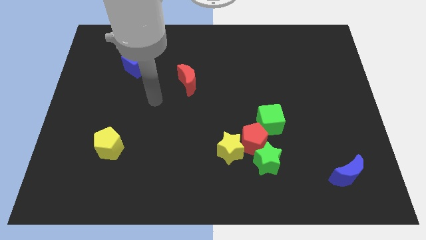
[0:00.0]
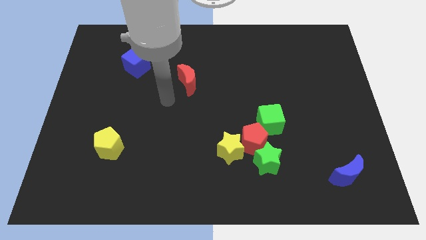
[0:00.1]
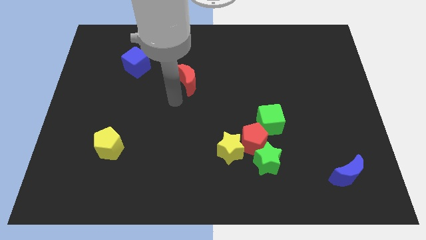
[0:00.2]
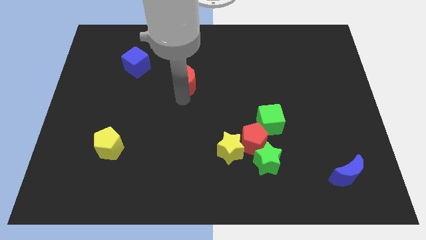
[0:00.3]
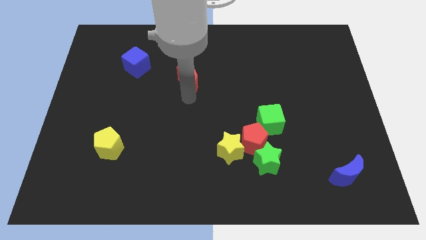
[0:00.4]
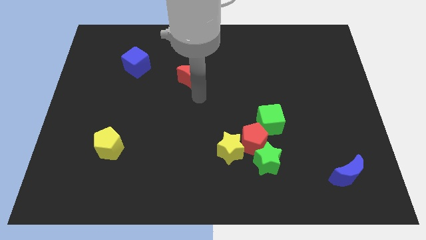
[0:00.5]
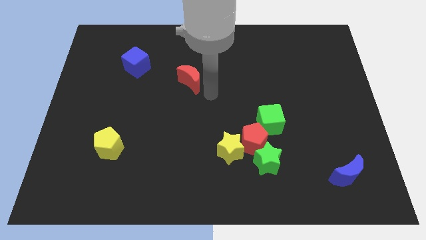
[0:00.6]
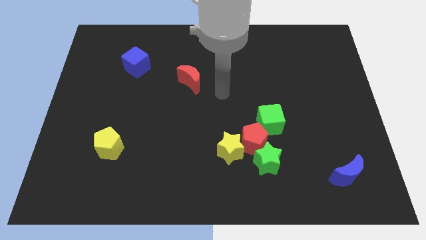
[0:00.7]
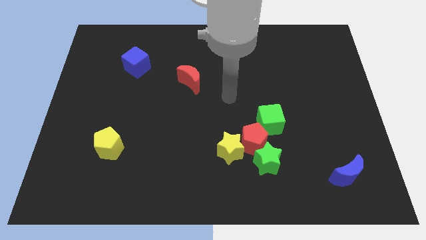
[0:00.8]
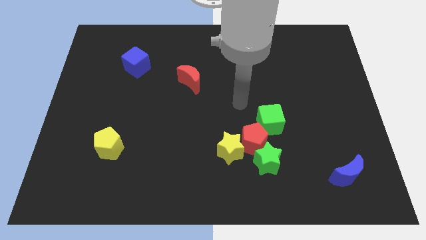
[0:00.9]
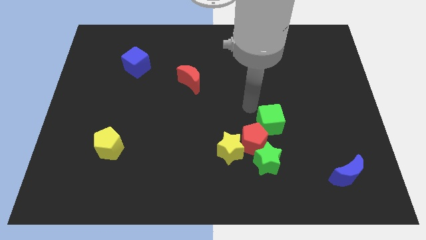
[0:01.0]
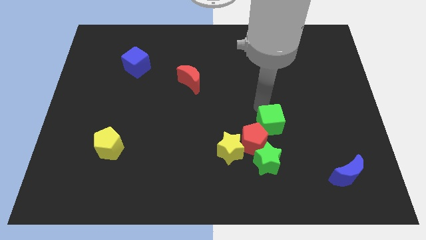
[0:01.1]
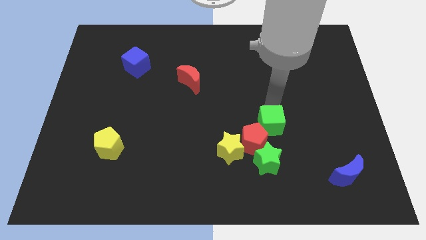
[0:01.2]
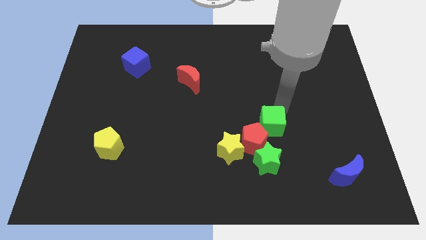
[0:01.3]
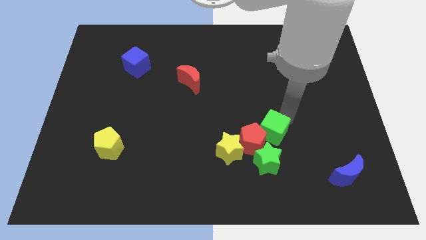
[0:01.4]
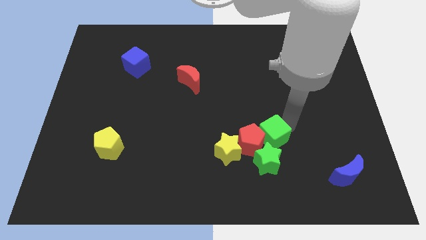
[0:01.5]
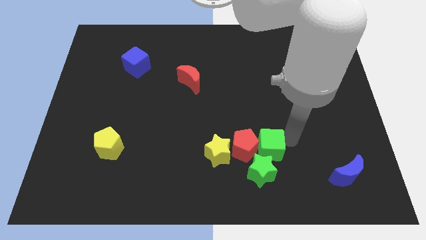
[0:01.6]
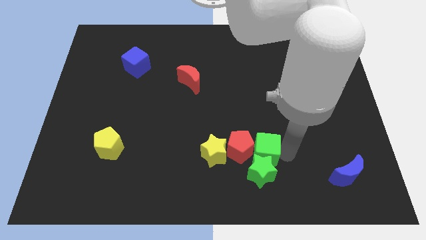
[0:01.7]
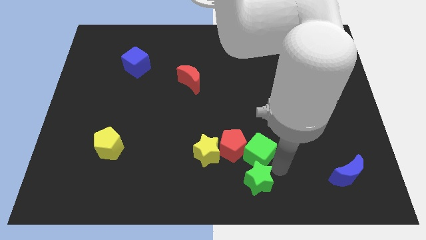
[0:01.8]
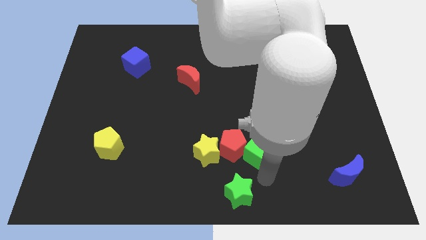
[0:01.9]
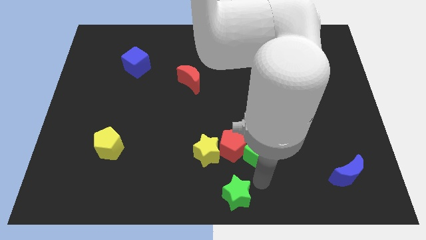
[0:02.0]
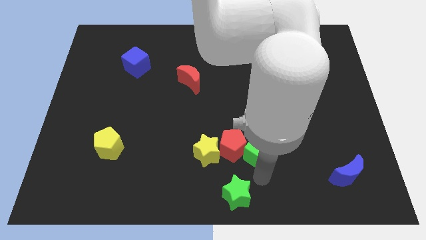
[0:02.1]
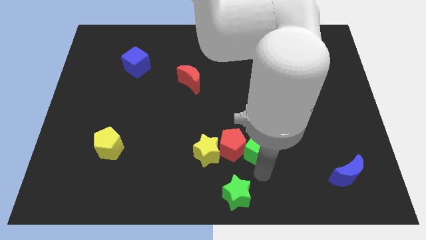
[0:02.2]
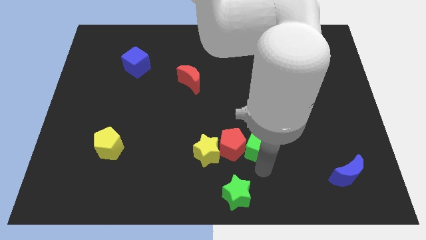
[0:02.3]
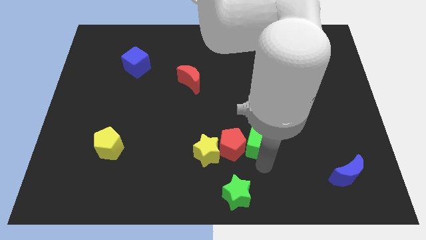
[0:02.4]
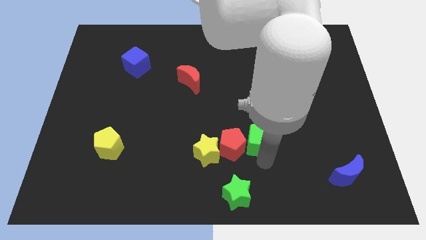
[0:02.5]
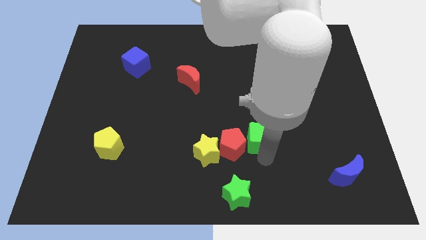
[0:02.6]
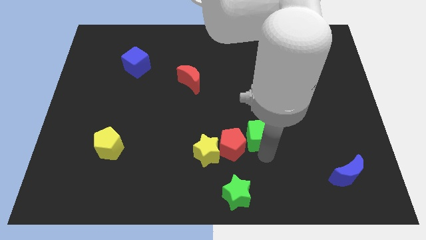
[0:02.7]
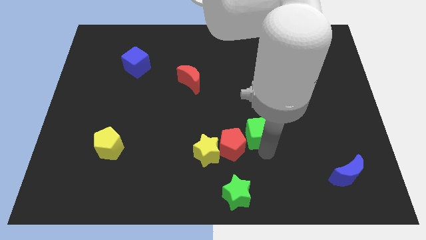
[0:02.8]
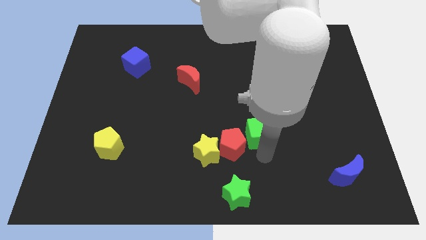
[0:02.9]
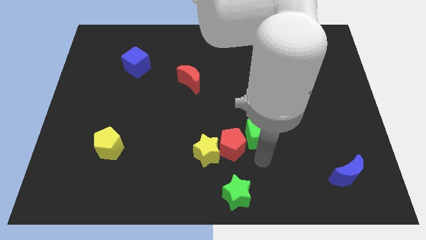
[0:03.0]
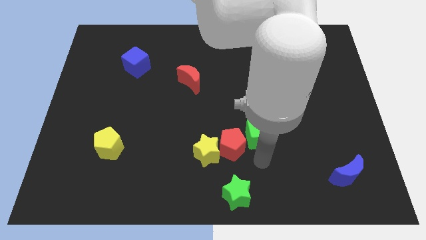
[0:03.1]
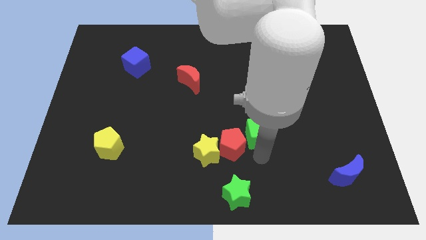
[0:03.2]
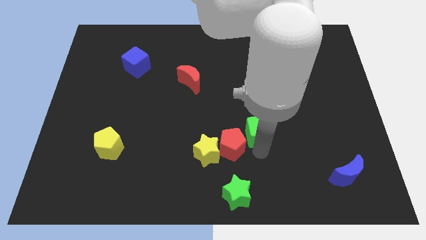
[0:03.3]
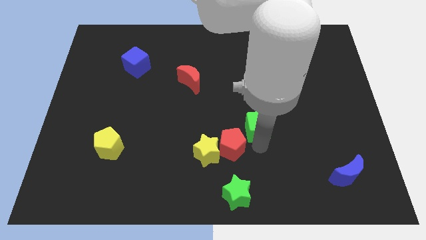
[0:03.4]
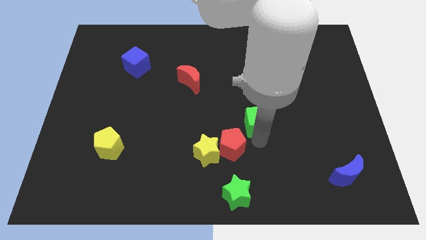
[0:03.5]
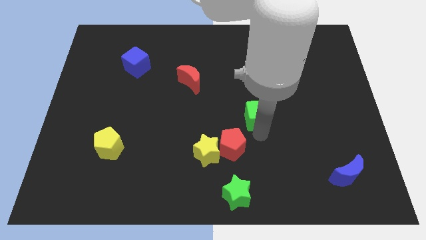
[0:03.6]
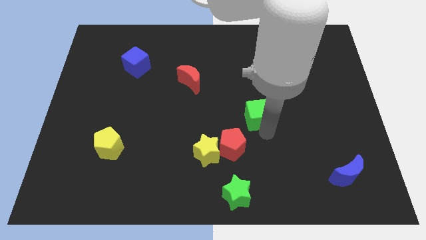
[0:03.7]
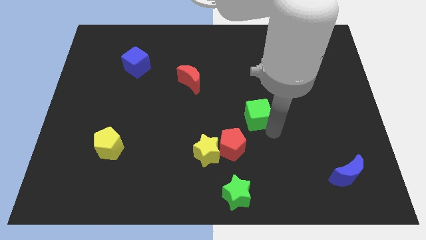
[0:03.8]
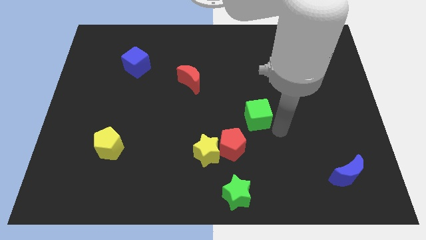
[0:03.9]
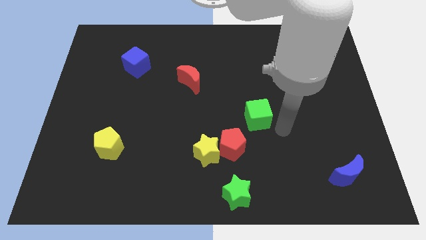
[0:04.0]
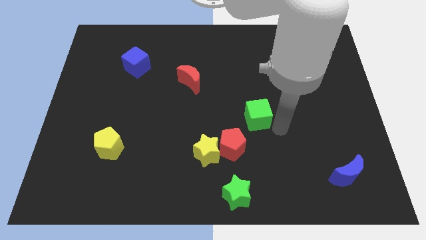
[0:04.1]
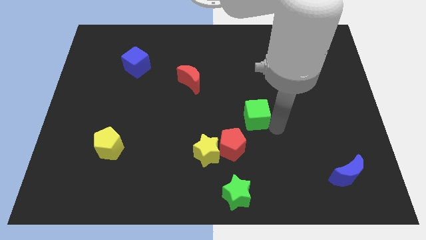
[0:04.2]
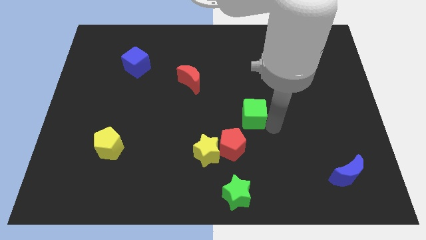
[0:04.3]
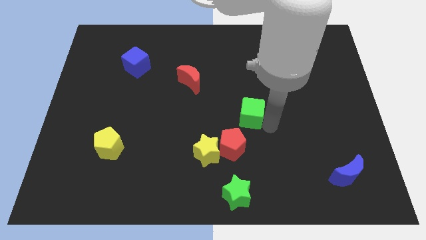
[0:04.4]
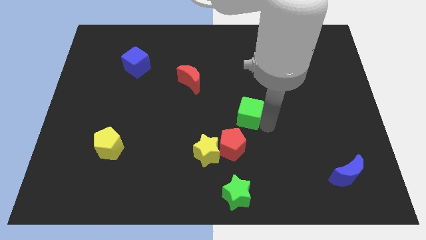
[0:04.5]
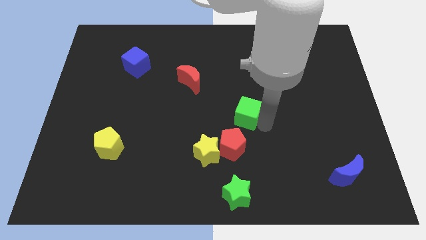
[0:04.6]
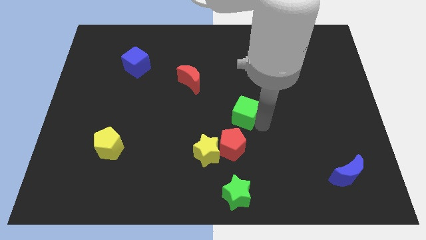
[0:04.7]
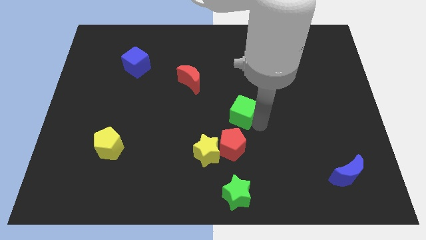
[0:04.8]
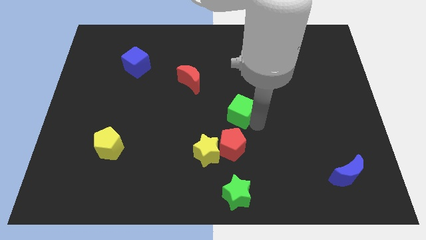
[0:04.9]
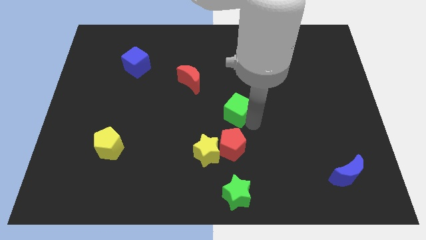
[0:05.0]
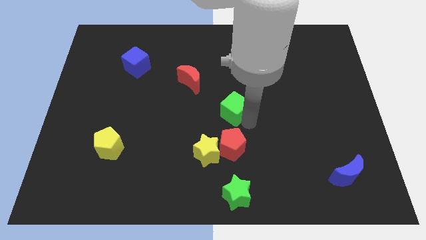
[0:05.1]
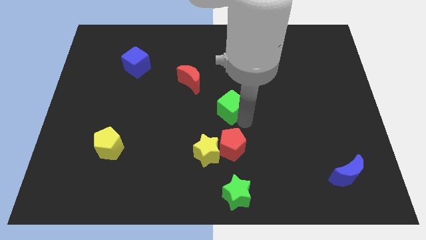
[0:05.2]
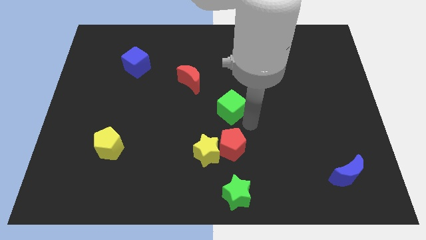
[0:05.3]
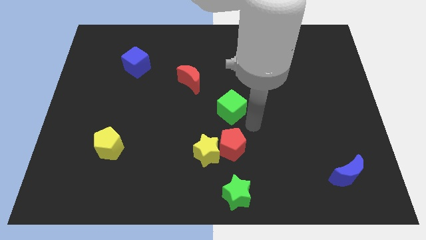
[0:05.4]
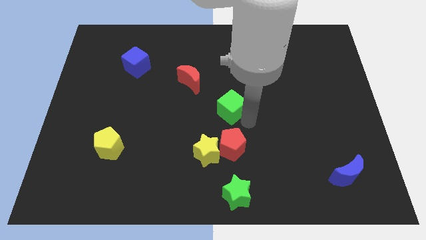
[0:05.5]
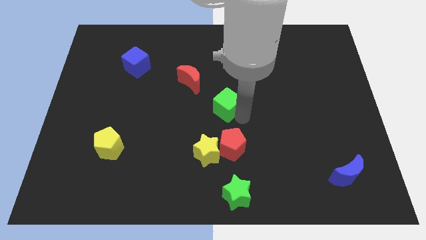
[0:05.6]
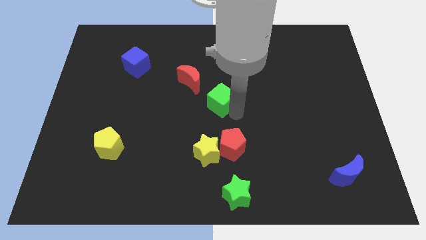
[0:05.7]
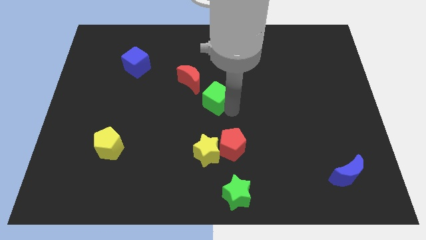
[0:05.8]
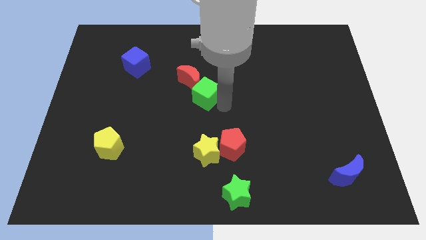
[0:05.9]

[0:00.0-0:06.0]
push the green cube next to the red moon

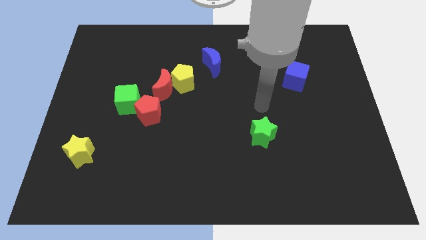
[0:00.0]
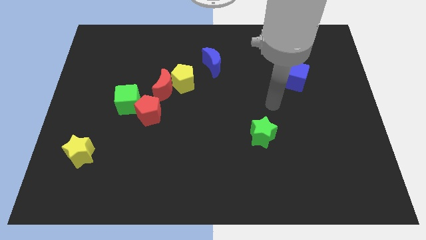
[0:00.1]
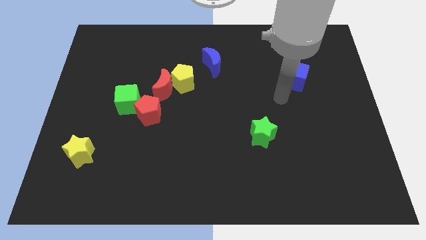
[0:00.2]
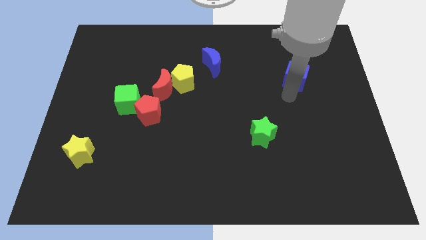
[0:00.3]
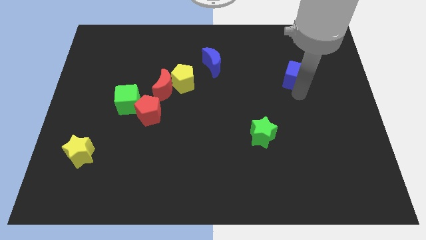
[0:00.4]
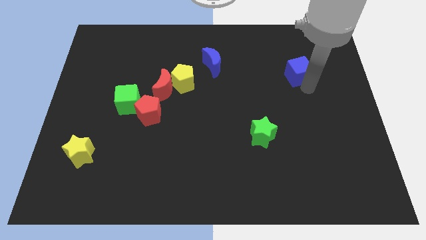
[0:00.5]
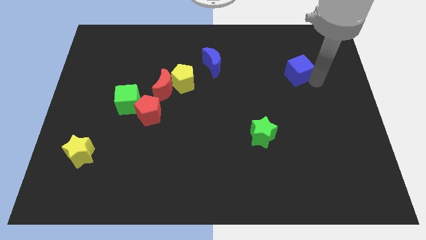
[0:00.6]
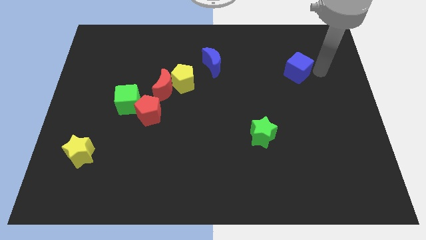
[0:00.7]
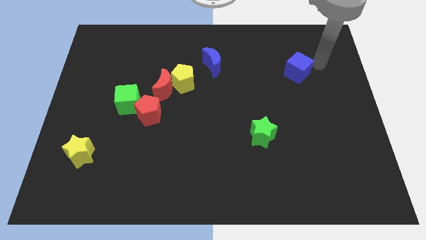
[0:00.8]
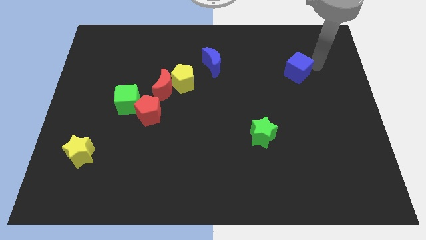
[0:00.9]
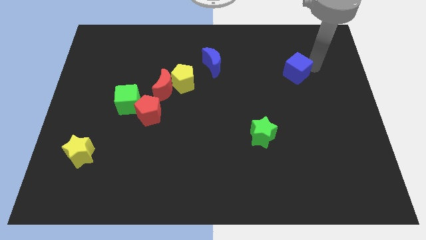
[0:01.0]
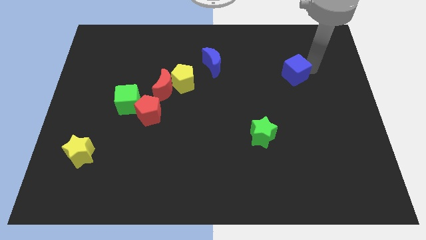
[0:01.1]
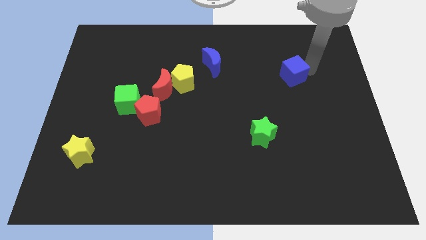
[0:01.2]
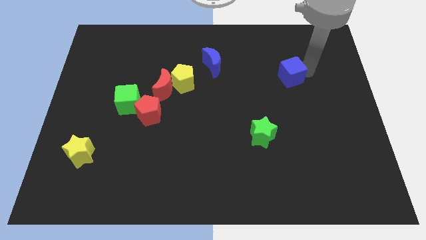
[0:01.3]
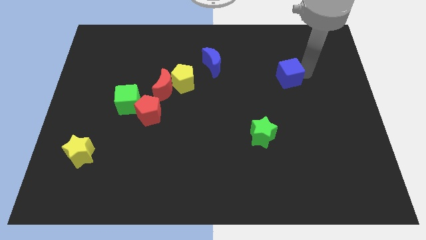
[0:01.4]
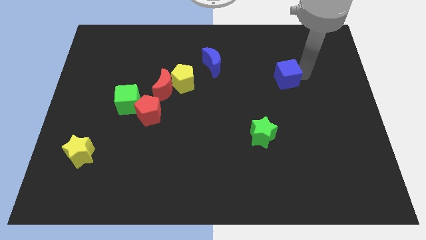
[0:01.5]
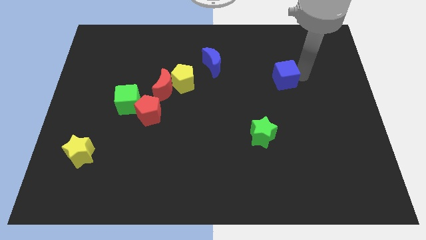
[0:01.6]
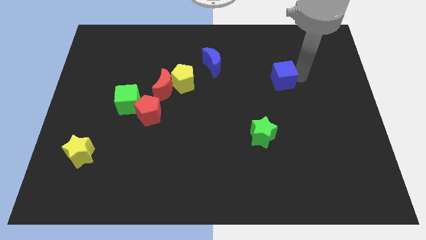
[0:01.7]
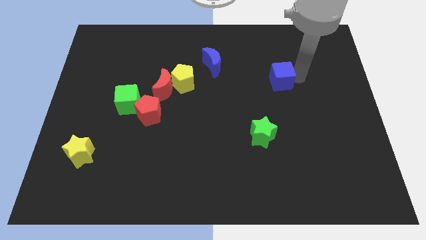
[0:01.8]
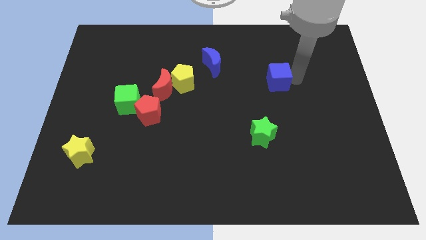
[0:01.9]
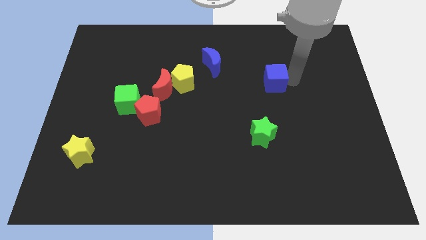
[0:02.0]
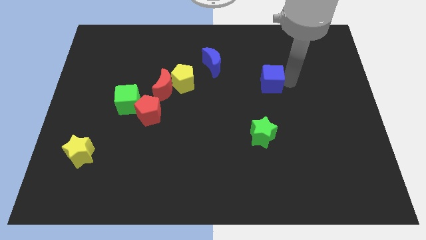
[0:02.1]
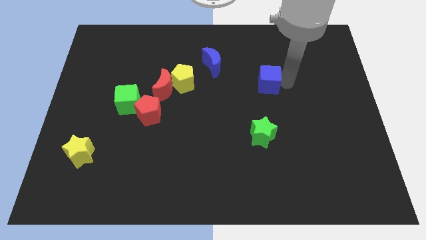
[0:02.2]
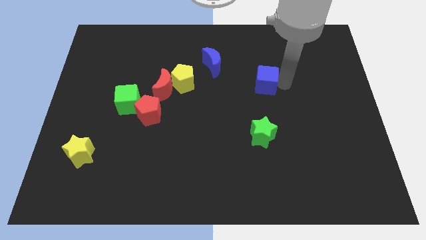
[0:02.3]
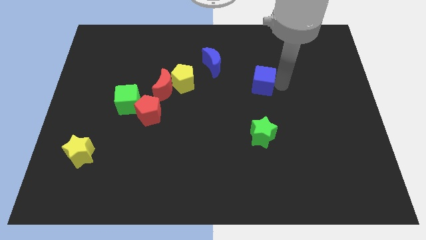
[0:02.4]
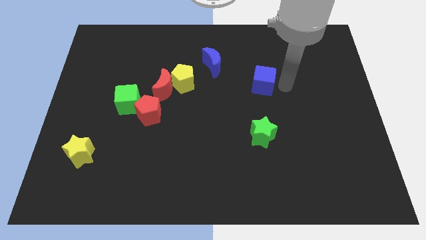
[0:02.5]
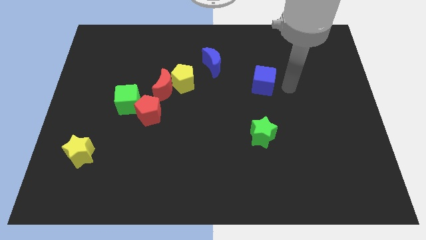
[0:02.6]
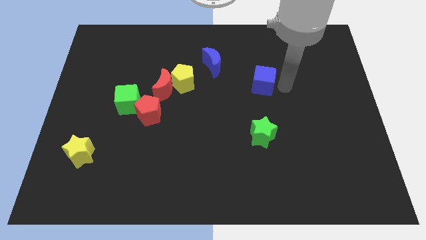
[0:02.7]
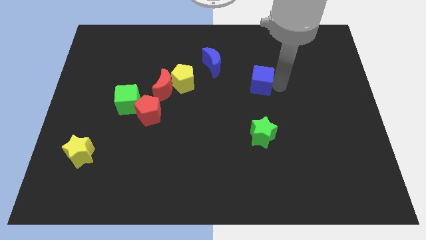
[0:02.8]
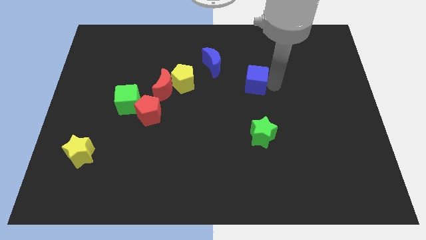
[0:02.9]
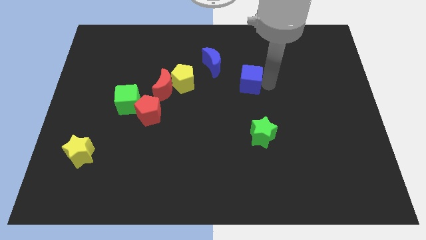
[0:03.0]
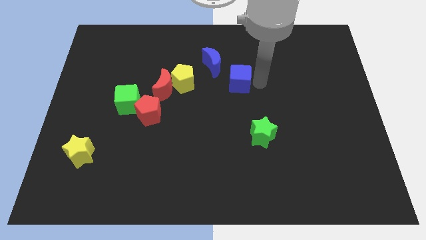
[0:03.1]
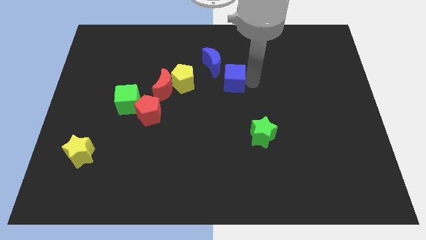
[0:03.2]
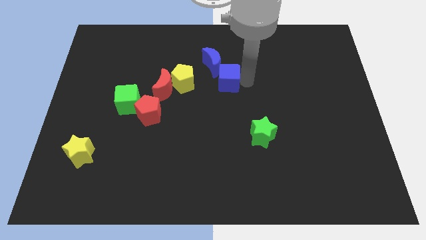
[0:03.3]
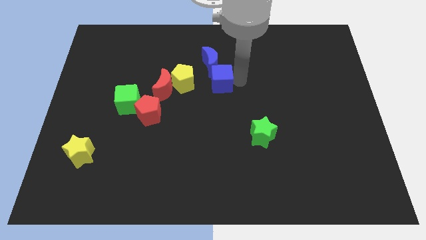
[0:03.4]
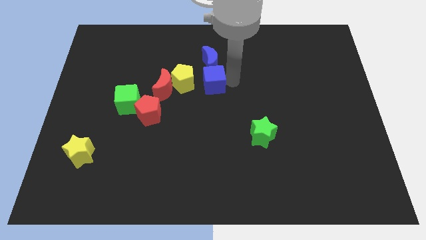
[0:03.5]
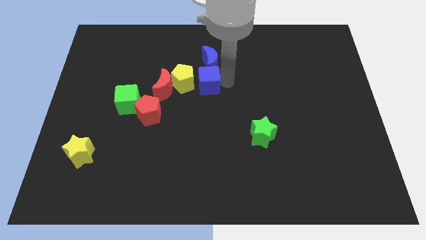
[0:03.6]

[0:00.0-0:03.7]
slide the blue cube next to the yellow pentagon
